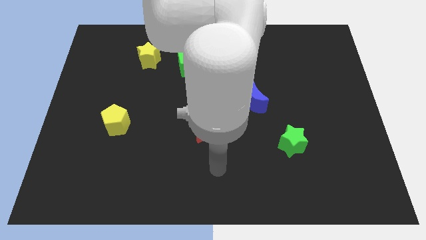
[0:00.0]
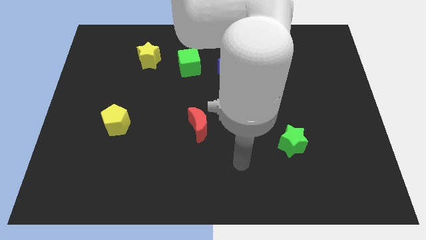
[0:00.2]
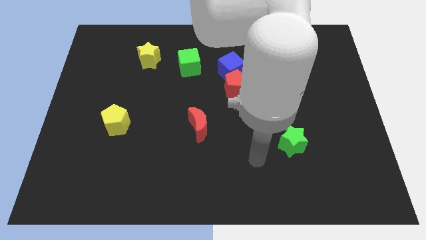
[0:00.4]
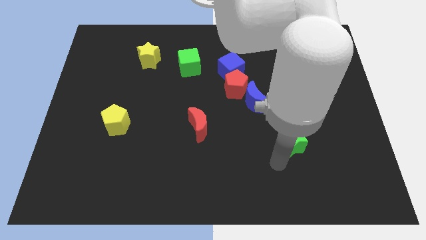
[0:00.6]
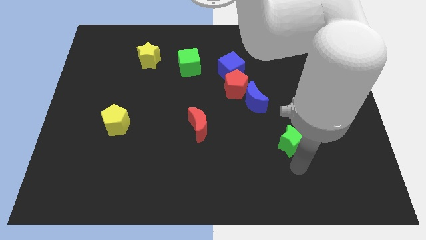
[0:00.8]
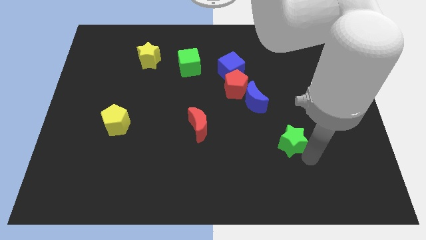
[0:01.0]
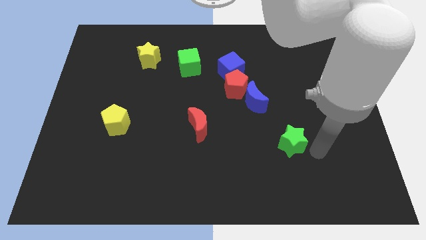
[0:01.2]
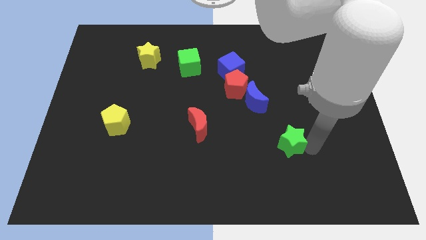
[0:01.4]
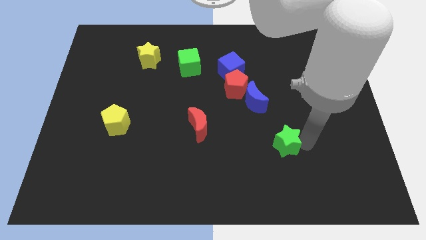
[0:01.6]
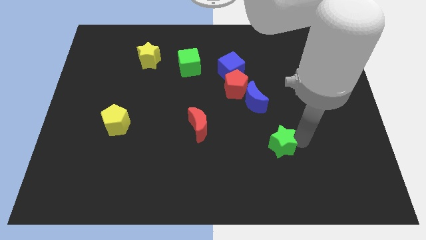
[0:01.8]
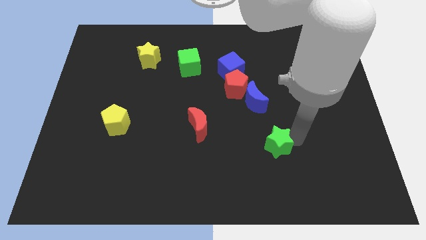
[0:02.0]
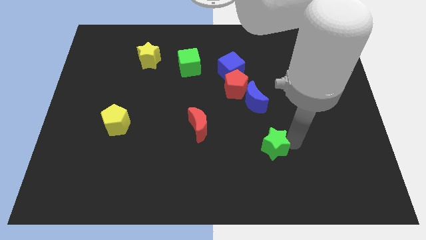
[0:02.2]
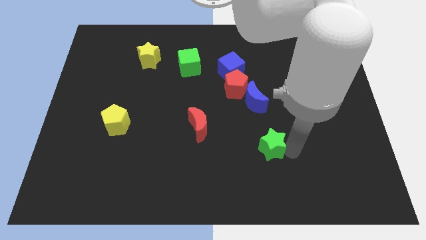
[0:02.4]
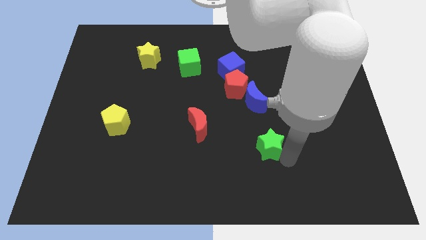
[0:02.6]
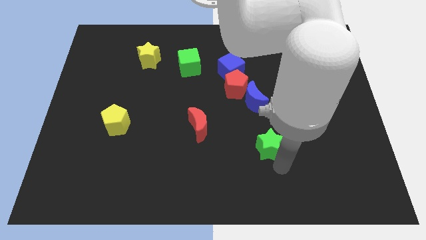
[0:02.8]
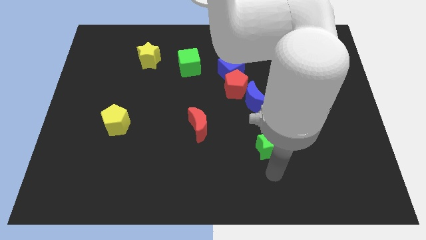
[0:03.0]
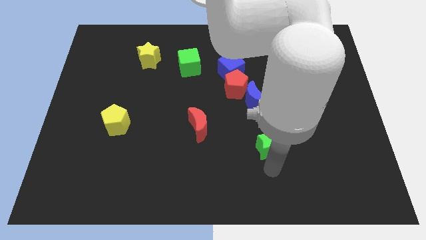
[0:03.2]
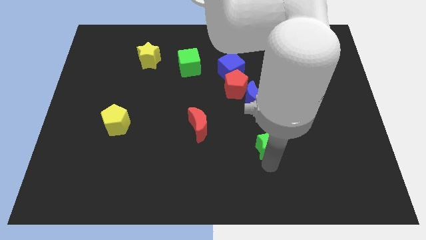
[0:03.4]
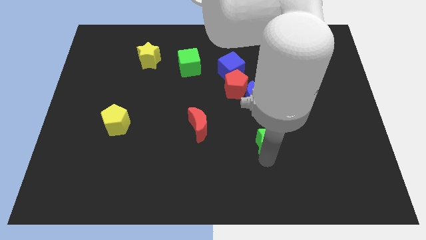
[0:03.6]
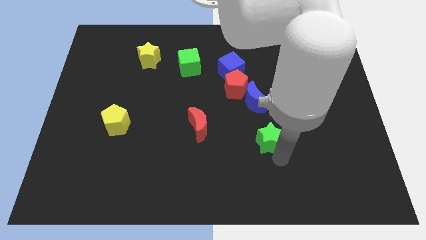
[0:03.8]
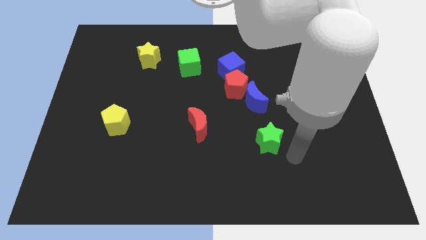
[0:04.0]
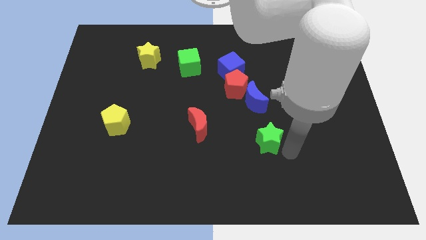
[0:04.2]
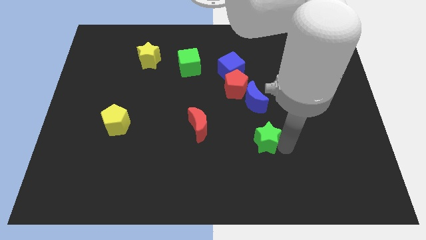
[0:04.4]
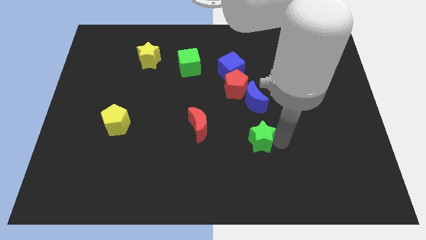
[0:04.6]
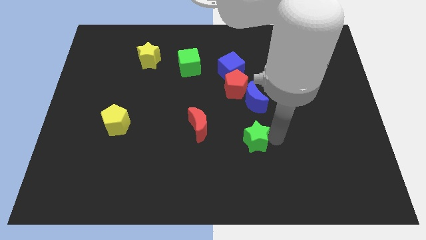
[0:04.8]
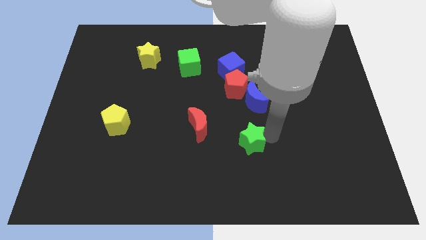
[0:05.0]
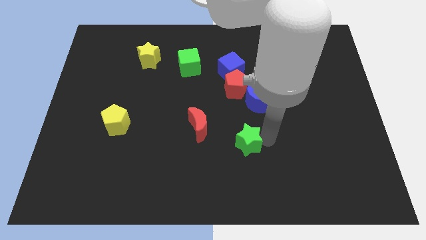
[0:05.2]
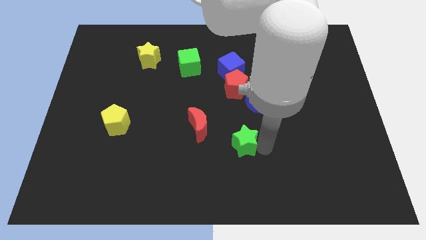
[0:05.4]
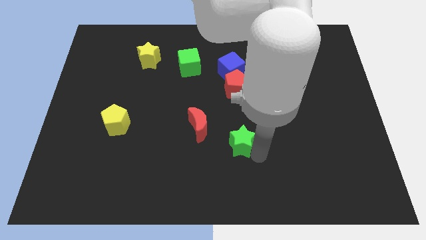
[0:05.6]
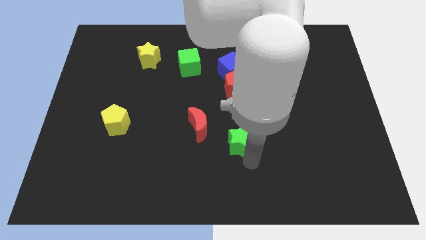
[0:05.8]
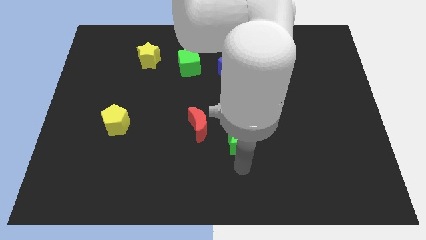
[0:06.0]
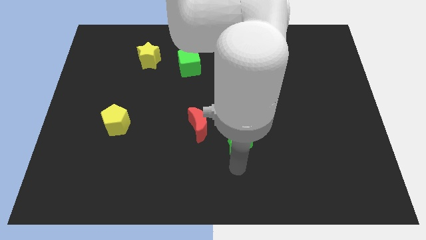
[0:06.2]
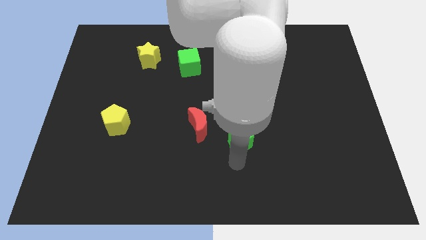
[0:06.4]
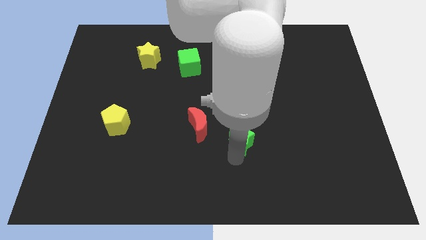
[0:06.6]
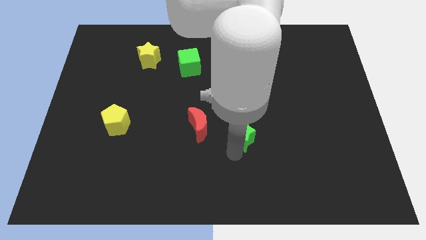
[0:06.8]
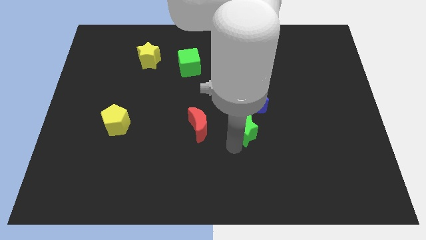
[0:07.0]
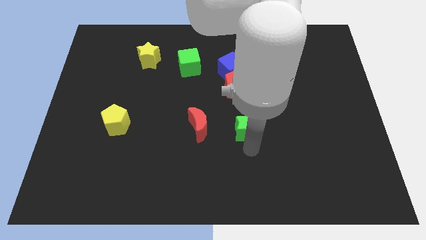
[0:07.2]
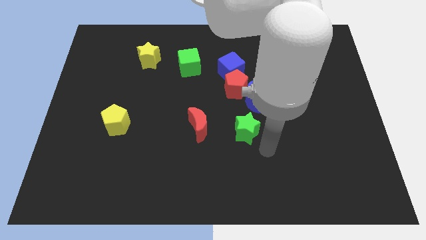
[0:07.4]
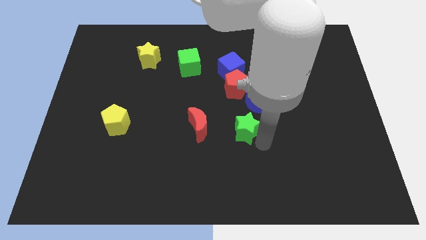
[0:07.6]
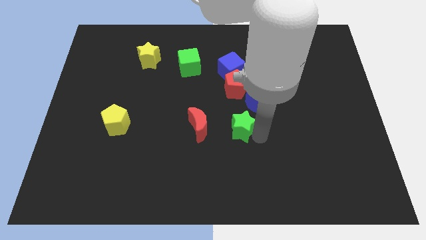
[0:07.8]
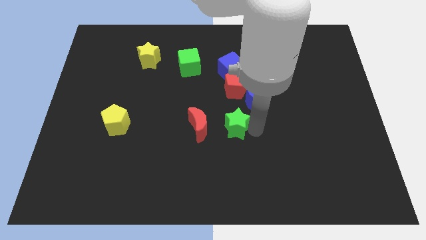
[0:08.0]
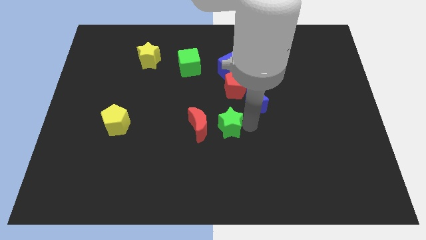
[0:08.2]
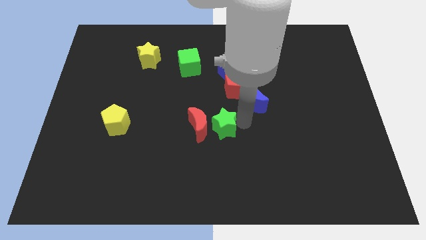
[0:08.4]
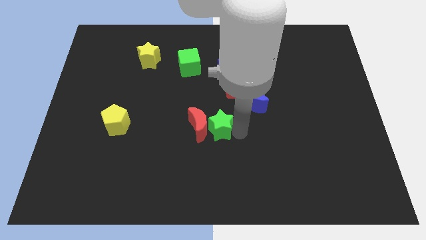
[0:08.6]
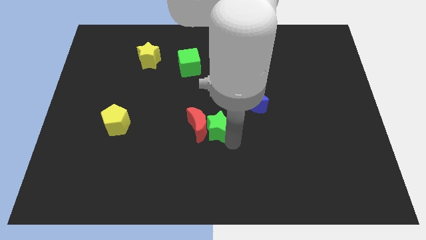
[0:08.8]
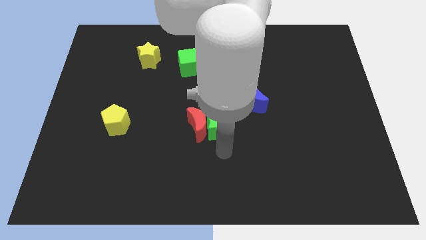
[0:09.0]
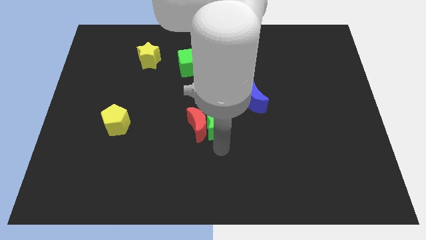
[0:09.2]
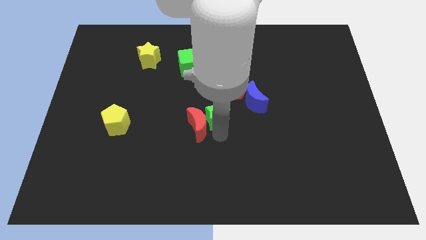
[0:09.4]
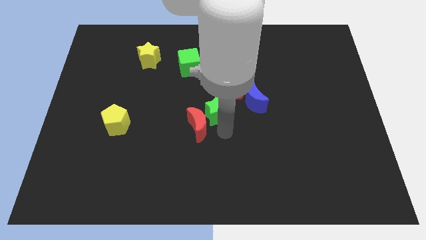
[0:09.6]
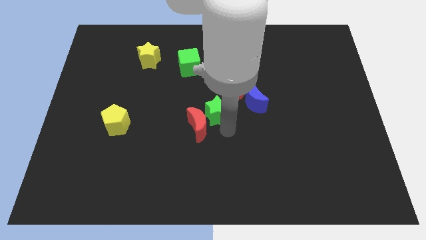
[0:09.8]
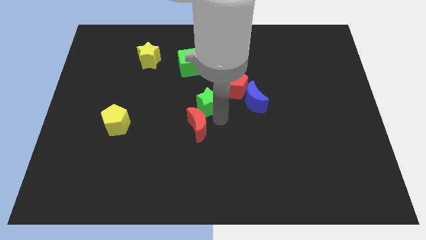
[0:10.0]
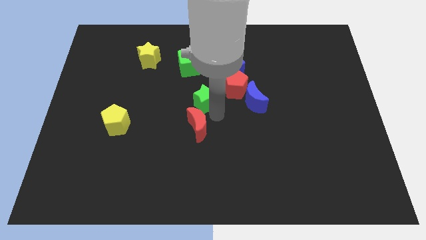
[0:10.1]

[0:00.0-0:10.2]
put the green star left of the red pentagon

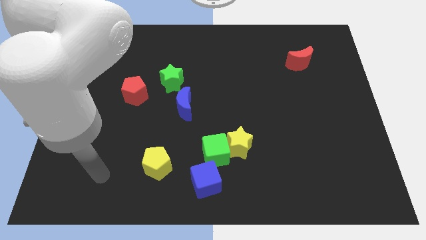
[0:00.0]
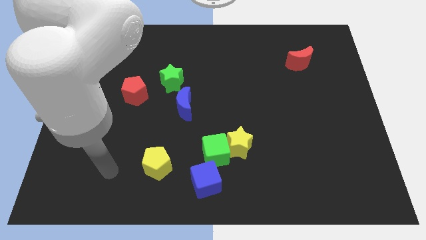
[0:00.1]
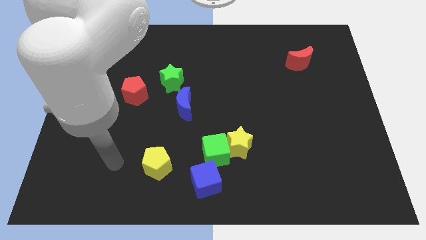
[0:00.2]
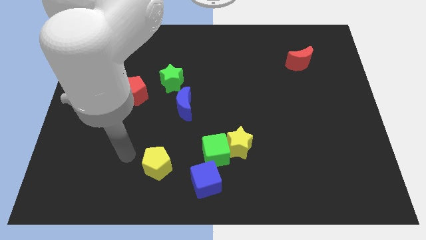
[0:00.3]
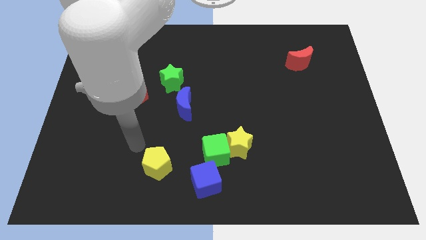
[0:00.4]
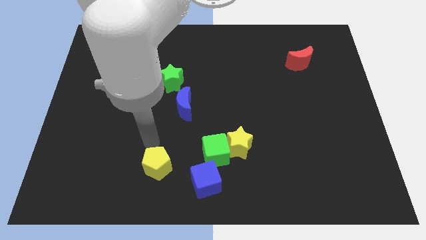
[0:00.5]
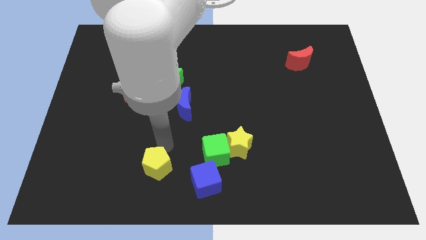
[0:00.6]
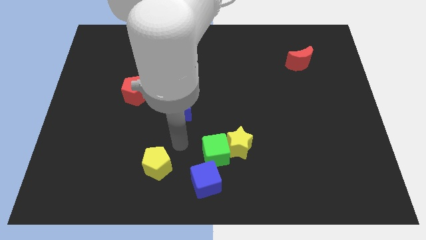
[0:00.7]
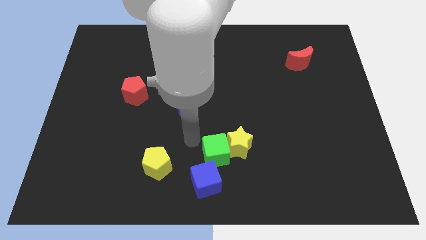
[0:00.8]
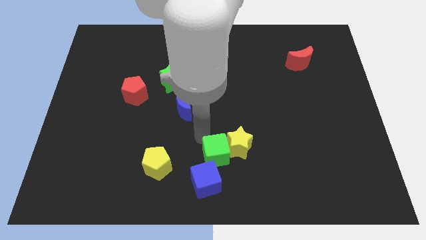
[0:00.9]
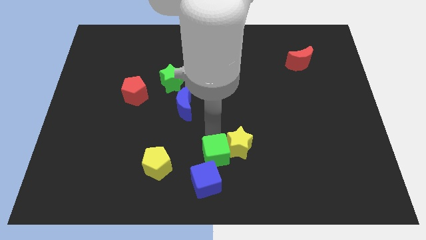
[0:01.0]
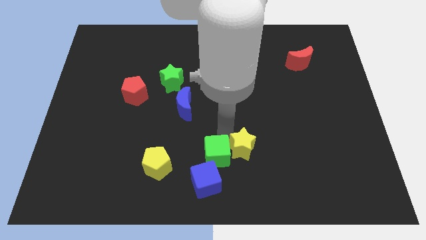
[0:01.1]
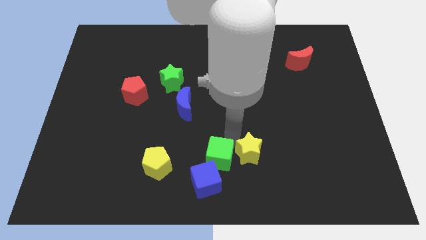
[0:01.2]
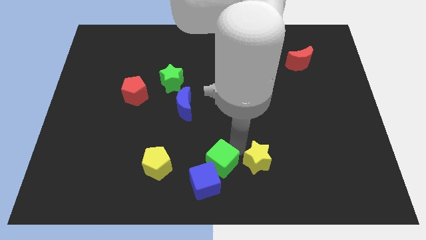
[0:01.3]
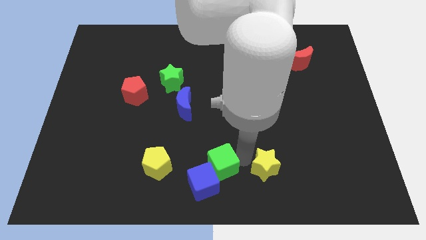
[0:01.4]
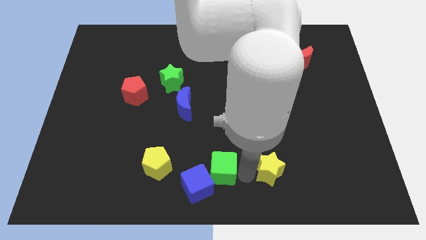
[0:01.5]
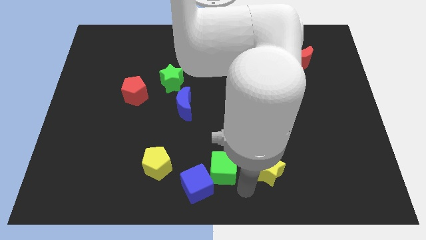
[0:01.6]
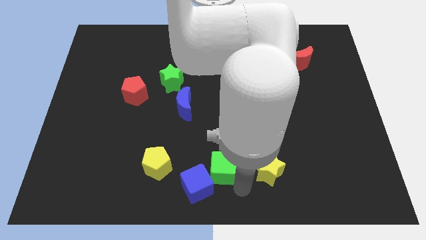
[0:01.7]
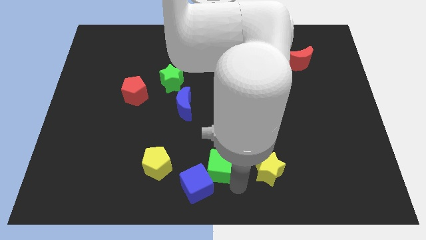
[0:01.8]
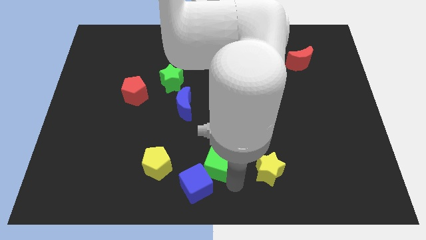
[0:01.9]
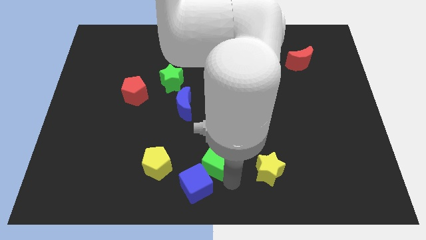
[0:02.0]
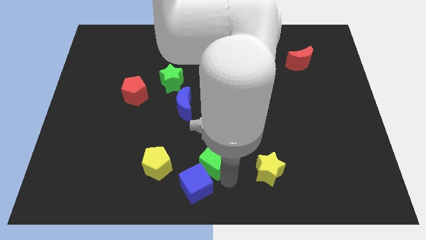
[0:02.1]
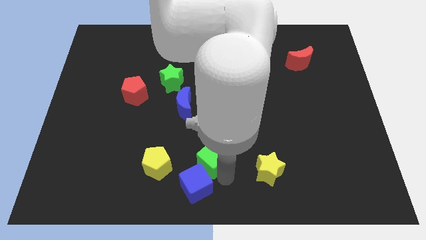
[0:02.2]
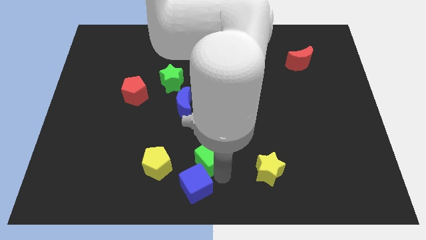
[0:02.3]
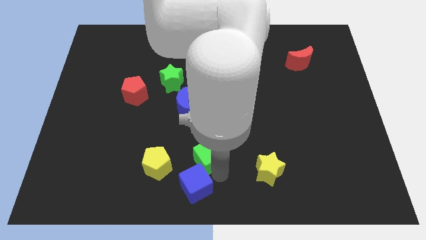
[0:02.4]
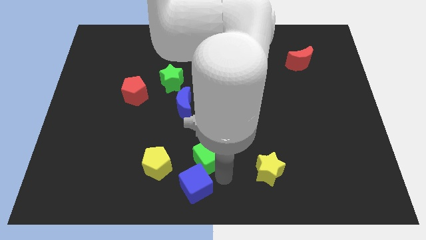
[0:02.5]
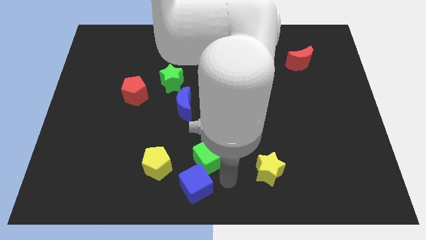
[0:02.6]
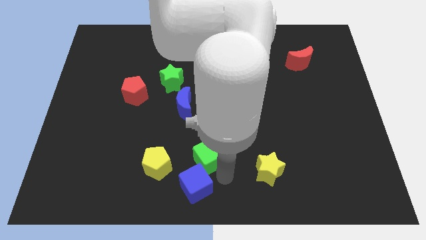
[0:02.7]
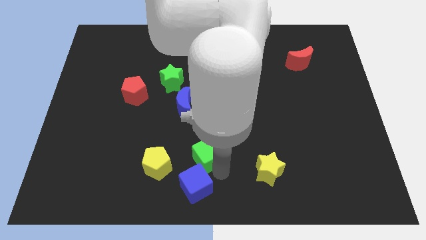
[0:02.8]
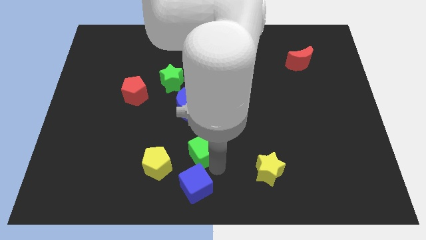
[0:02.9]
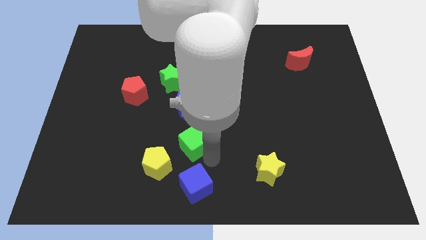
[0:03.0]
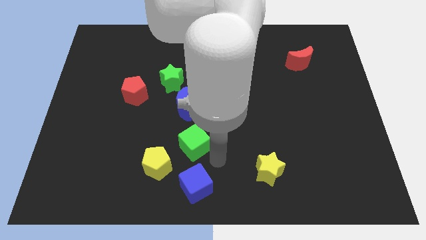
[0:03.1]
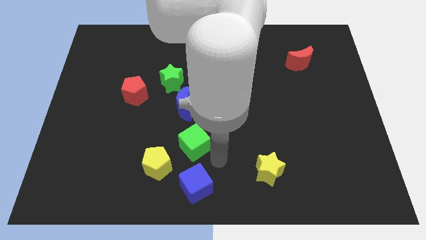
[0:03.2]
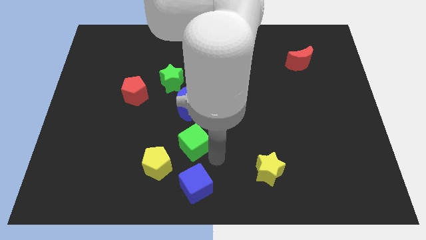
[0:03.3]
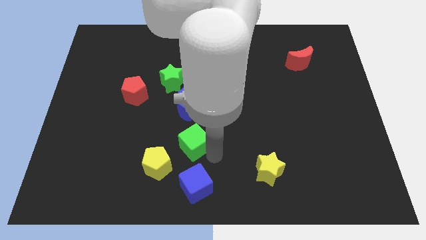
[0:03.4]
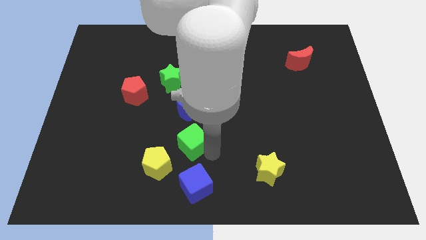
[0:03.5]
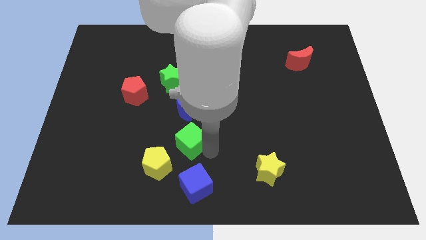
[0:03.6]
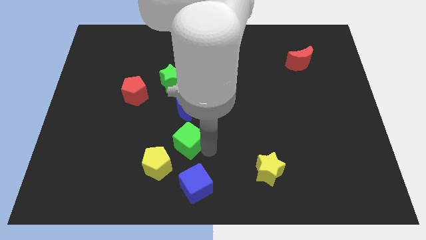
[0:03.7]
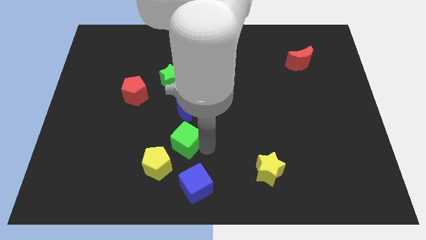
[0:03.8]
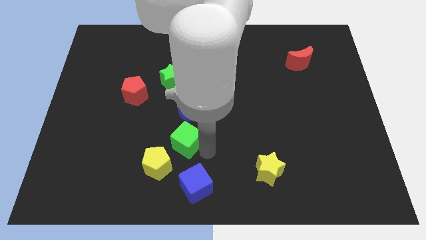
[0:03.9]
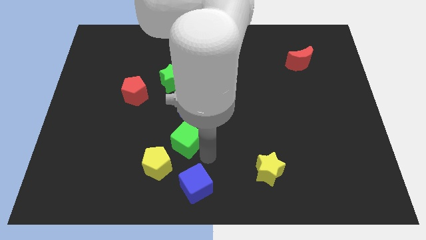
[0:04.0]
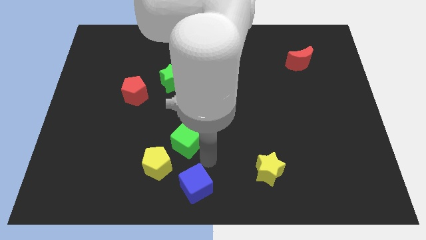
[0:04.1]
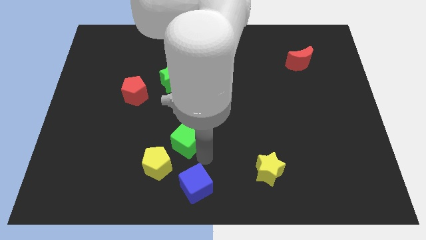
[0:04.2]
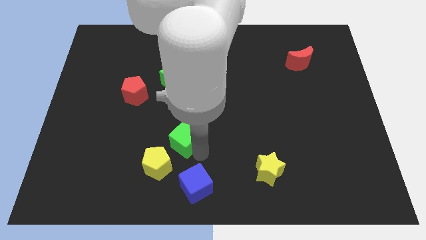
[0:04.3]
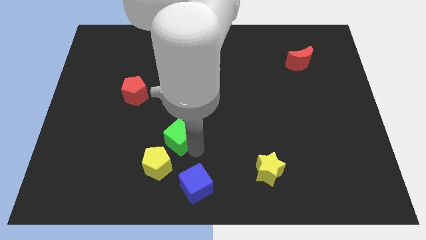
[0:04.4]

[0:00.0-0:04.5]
push the green cube to the top side of the yellow pentagon
